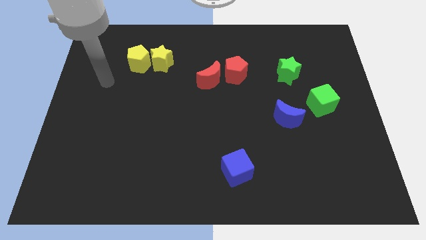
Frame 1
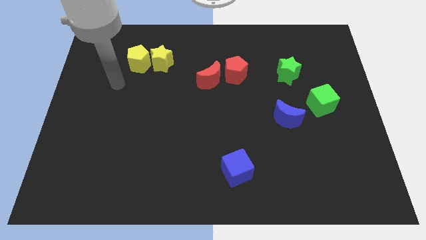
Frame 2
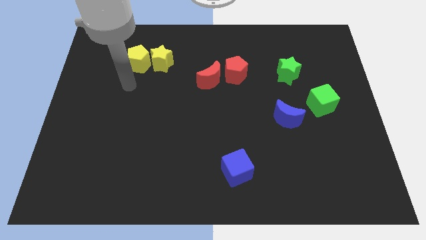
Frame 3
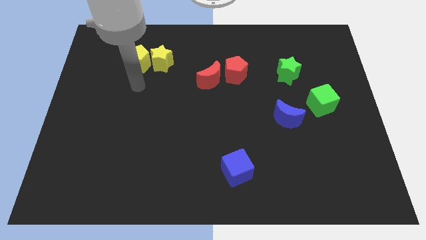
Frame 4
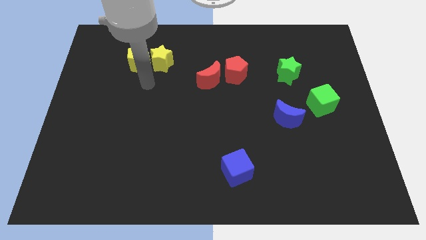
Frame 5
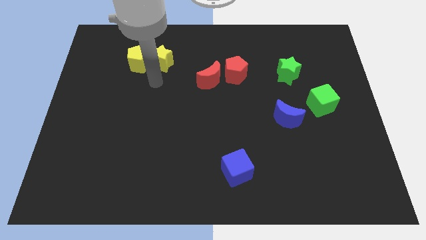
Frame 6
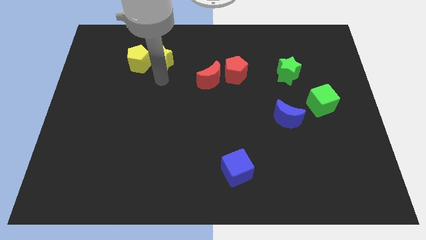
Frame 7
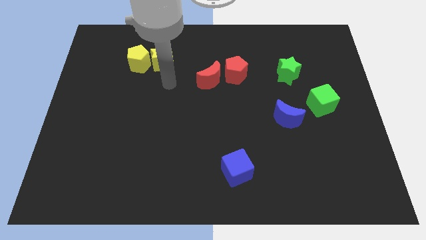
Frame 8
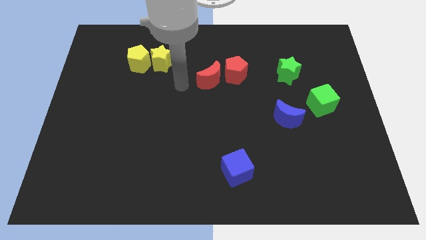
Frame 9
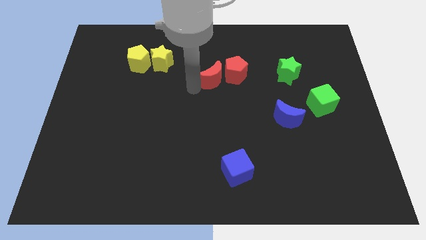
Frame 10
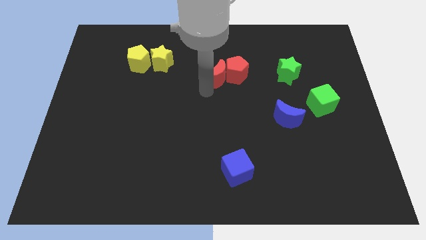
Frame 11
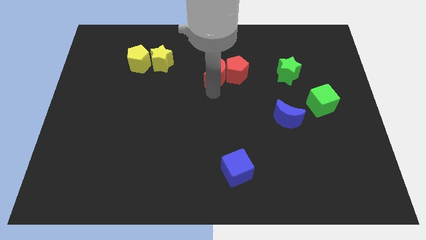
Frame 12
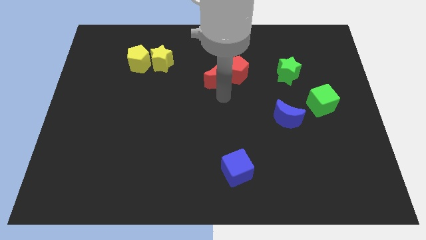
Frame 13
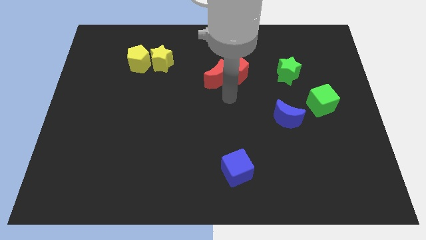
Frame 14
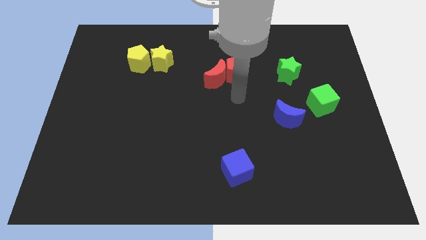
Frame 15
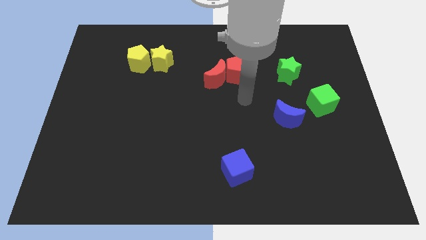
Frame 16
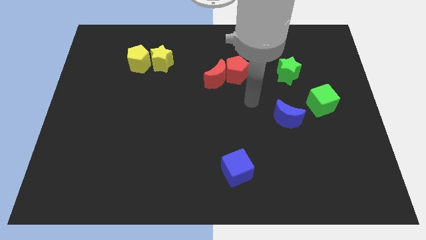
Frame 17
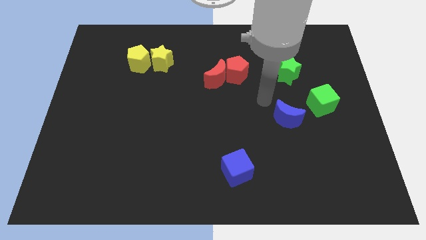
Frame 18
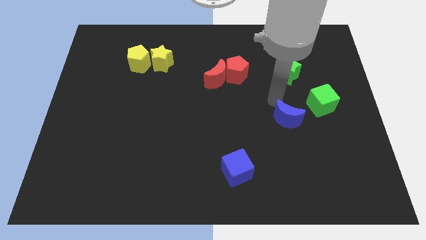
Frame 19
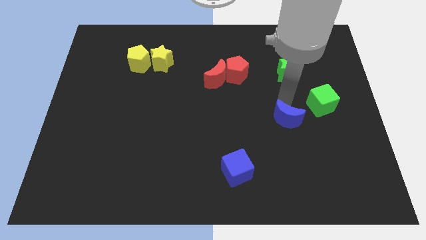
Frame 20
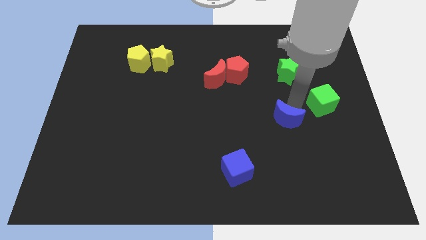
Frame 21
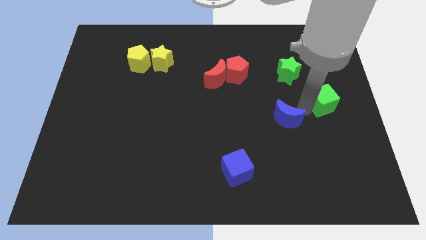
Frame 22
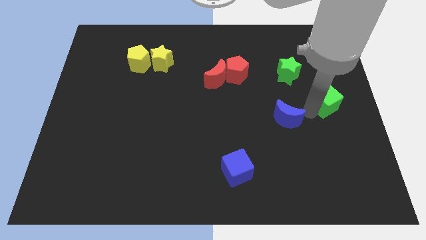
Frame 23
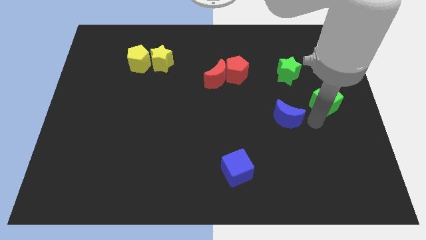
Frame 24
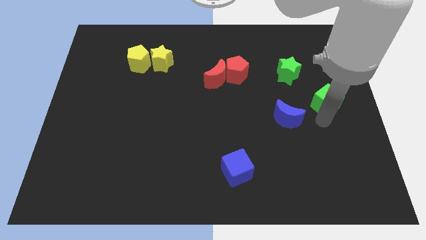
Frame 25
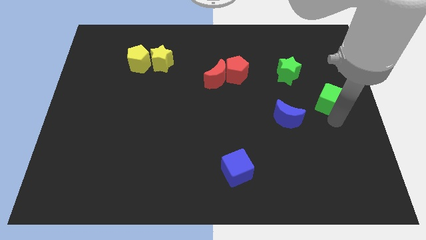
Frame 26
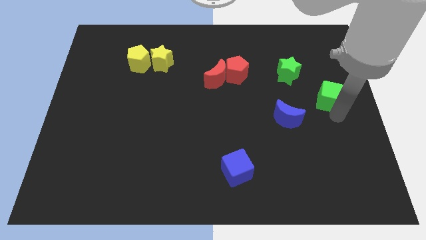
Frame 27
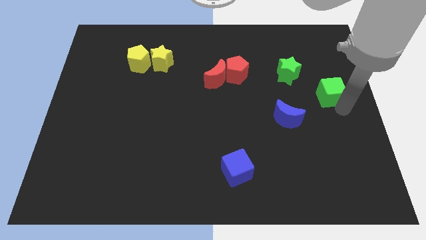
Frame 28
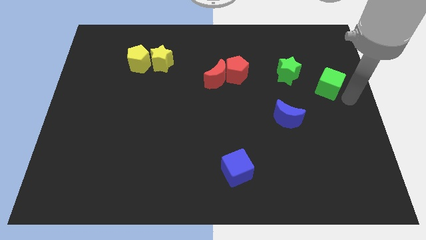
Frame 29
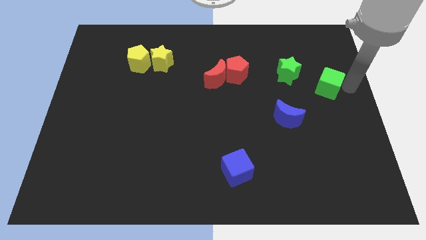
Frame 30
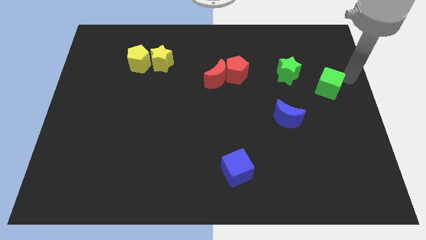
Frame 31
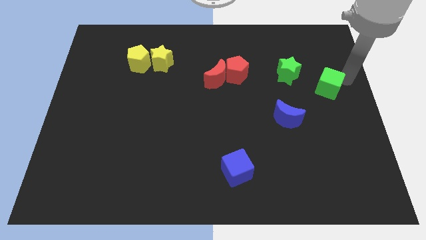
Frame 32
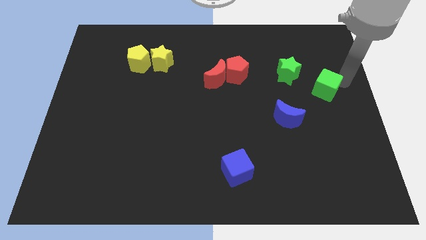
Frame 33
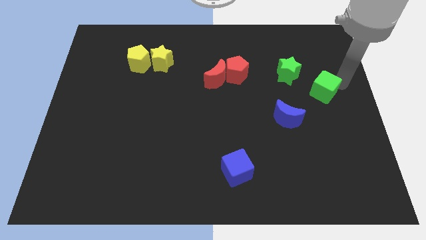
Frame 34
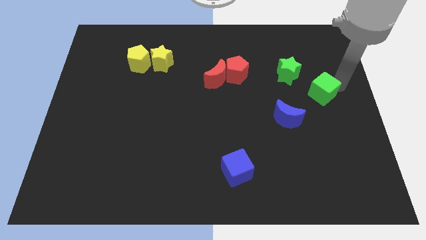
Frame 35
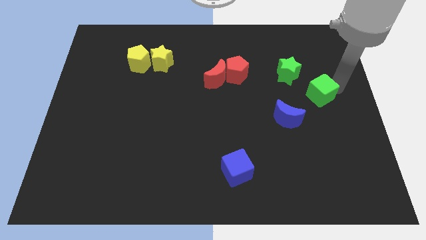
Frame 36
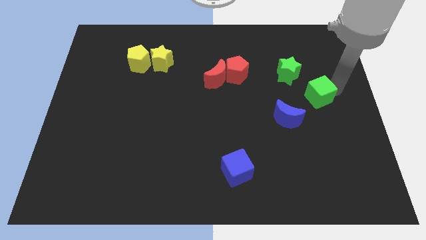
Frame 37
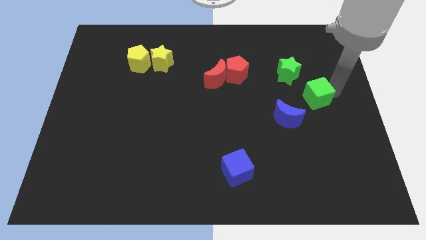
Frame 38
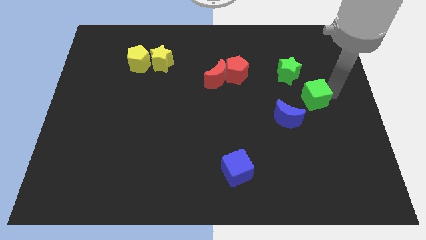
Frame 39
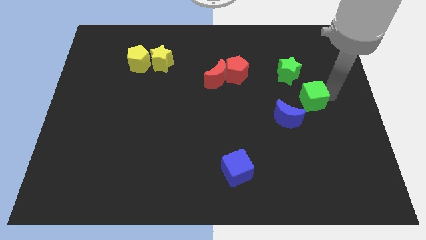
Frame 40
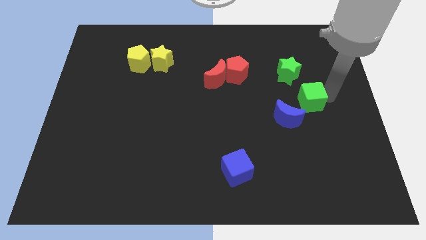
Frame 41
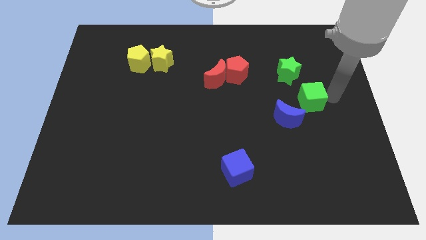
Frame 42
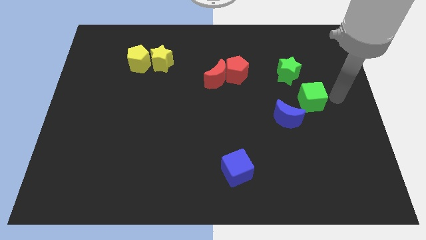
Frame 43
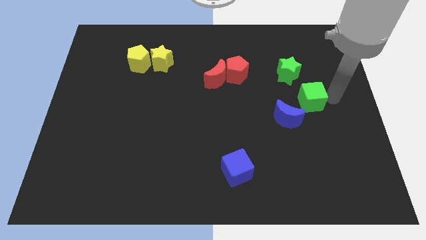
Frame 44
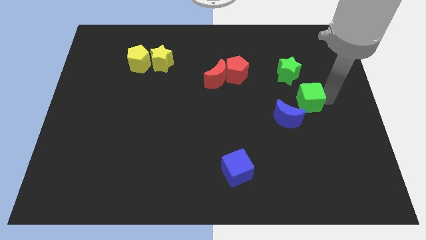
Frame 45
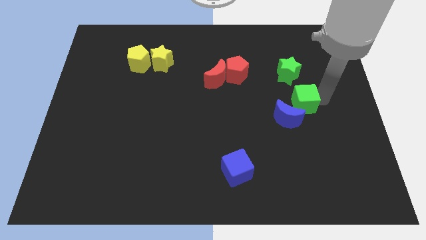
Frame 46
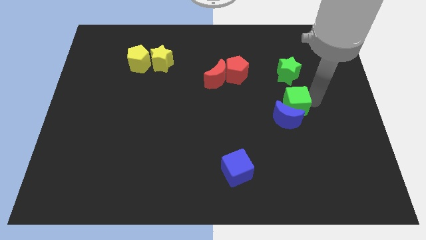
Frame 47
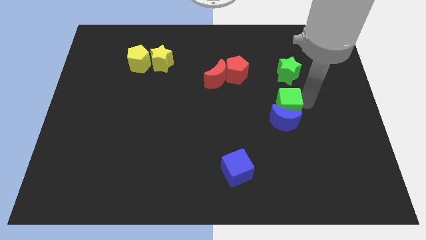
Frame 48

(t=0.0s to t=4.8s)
slightly push the green cube to the left

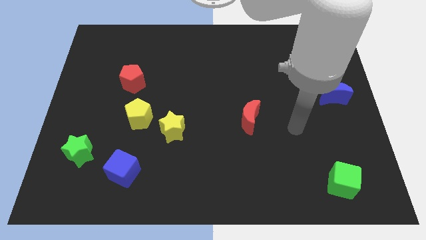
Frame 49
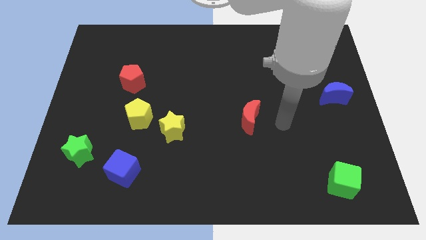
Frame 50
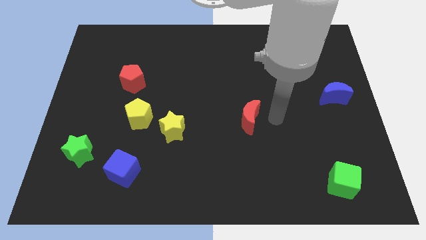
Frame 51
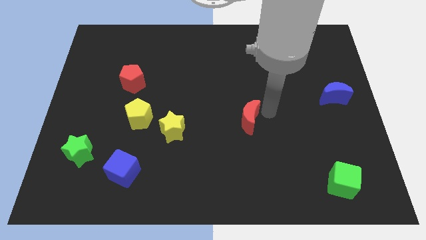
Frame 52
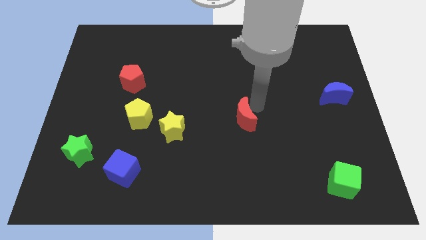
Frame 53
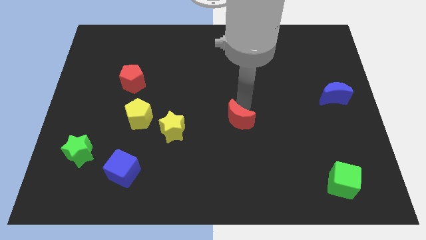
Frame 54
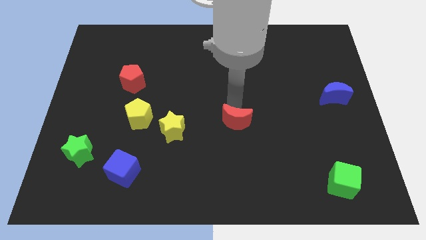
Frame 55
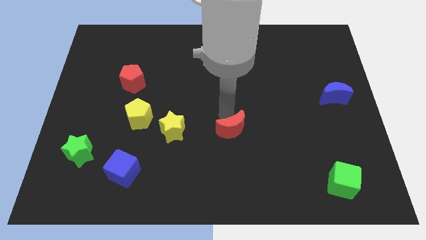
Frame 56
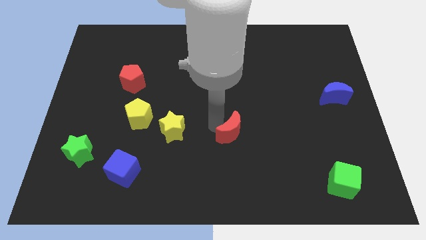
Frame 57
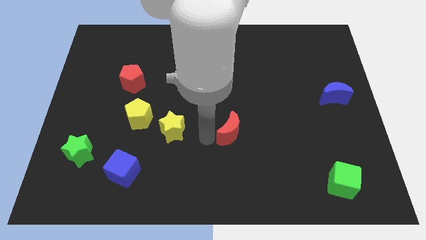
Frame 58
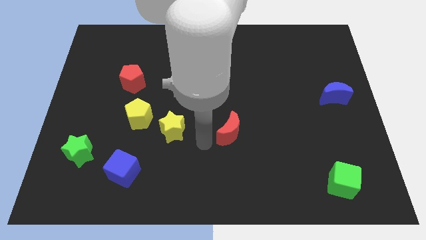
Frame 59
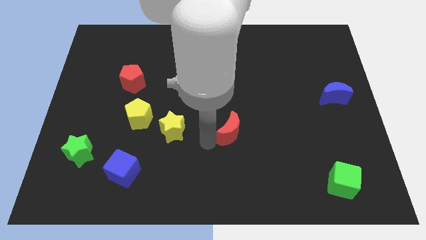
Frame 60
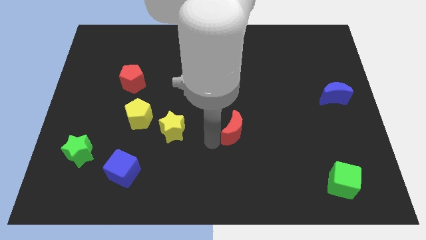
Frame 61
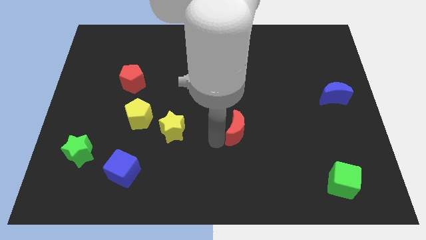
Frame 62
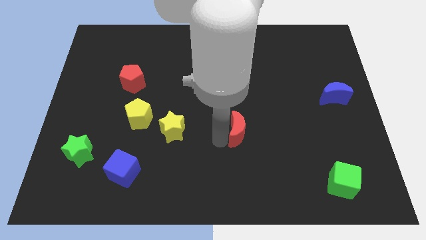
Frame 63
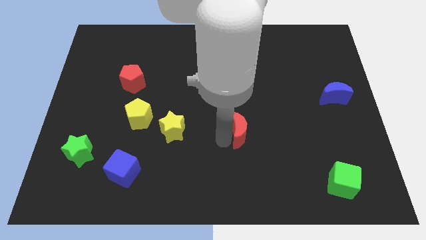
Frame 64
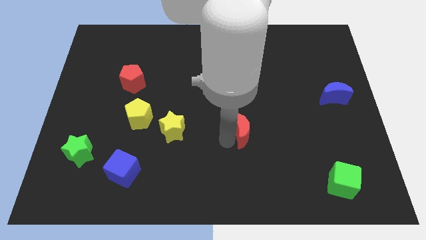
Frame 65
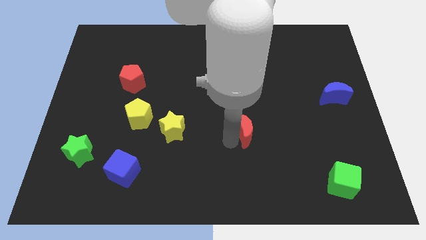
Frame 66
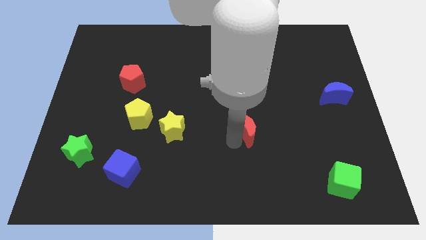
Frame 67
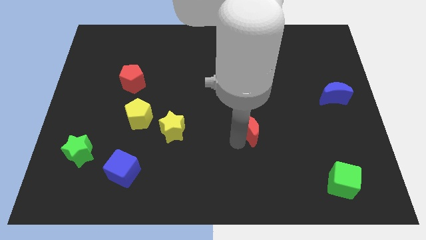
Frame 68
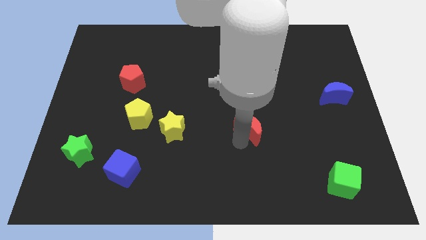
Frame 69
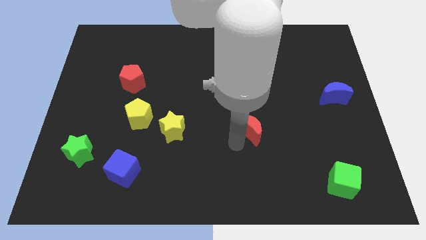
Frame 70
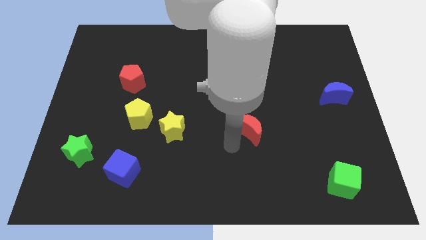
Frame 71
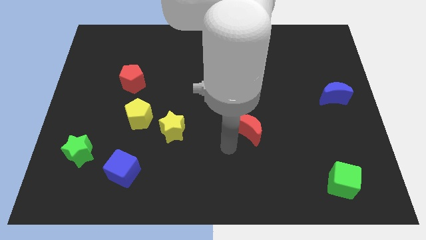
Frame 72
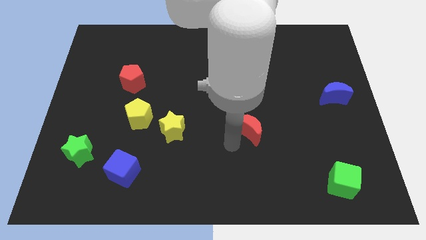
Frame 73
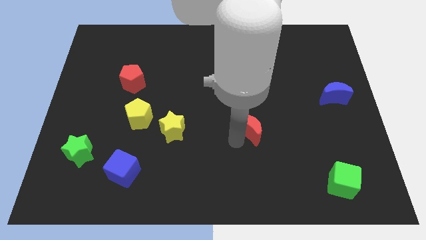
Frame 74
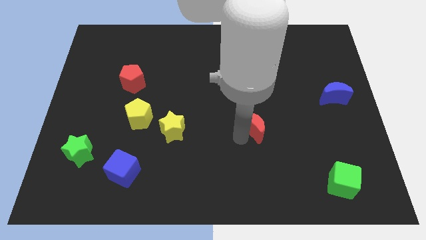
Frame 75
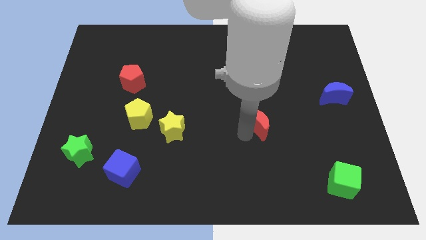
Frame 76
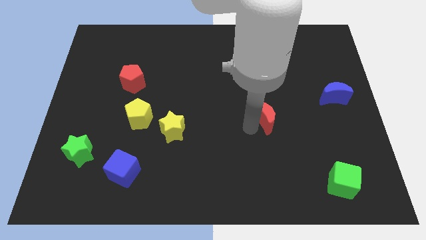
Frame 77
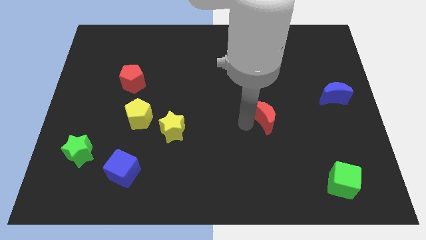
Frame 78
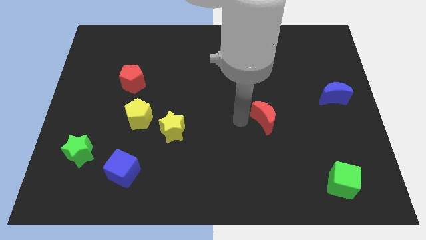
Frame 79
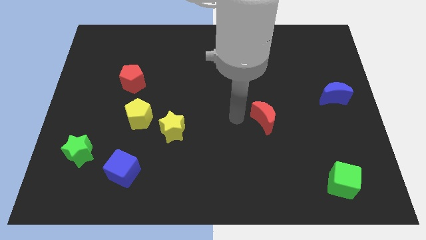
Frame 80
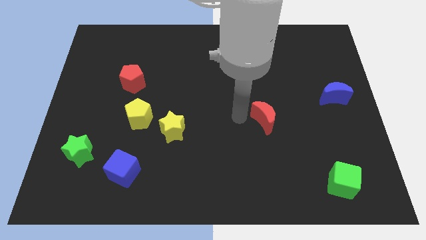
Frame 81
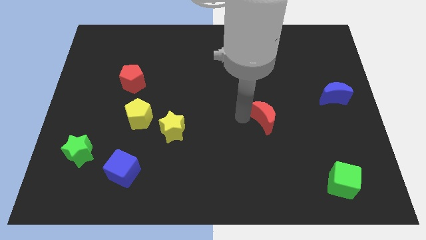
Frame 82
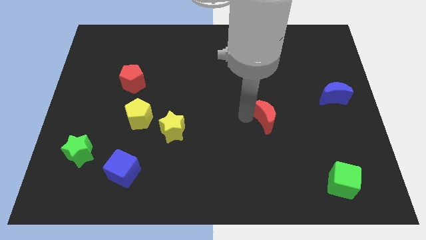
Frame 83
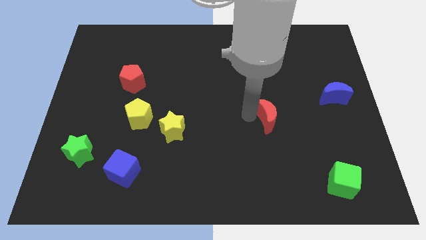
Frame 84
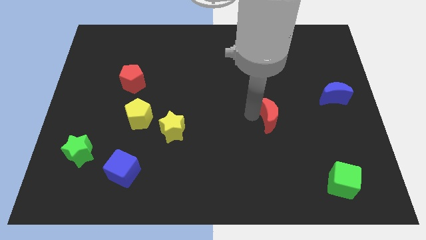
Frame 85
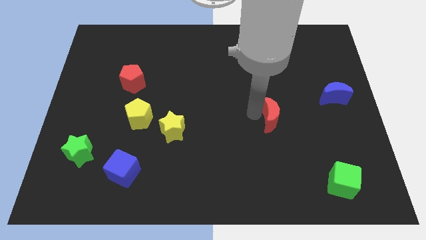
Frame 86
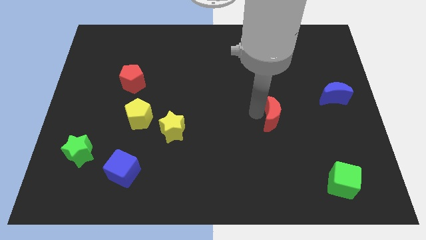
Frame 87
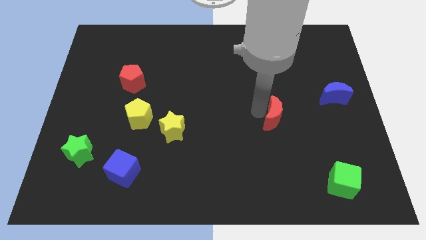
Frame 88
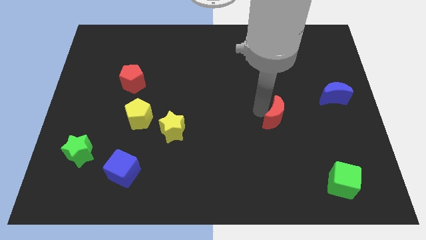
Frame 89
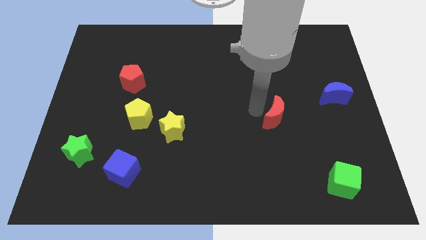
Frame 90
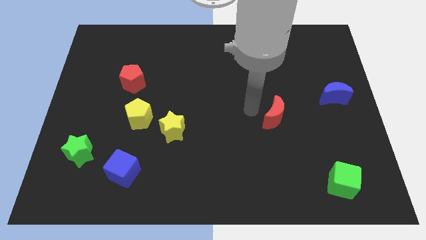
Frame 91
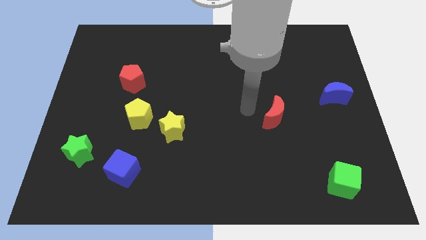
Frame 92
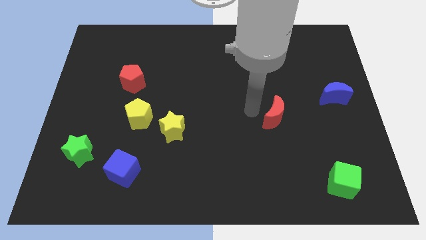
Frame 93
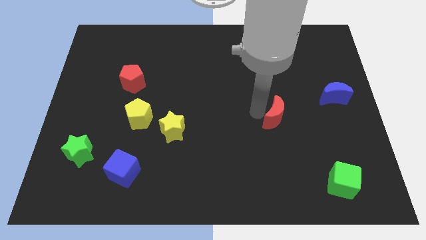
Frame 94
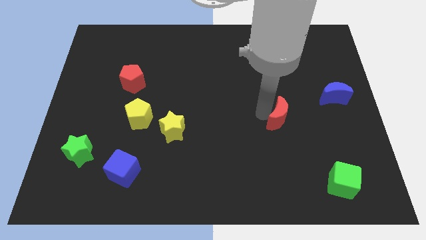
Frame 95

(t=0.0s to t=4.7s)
push the red moon right a bit
